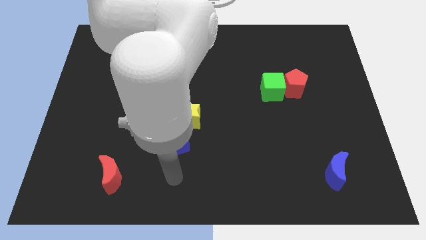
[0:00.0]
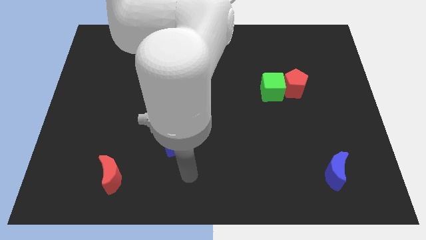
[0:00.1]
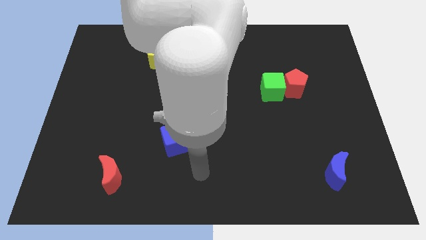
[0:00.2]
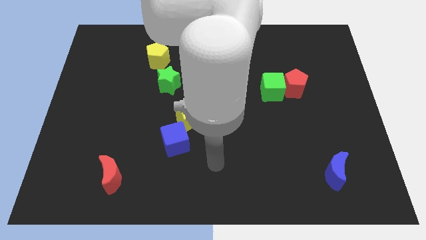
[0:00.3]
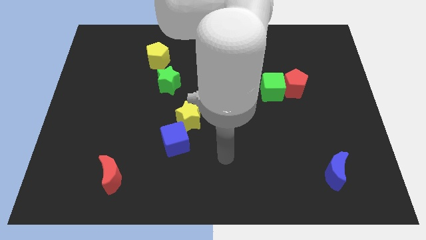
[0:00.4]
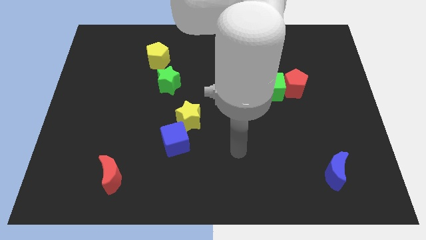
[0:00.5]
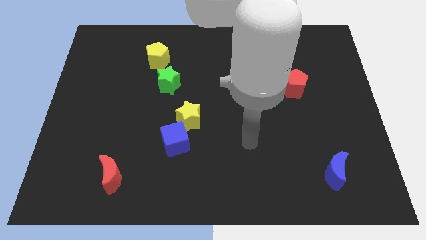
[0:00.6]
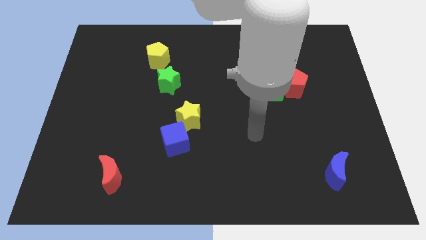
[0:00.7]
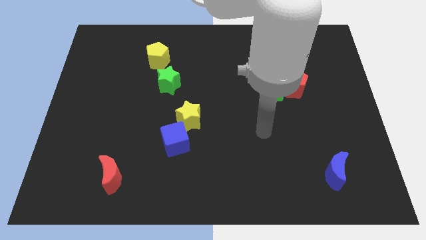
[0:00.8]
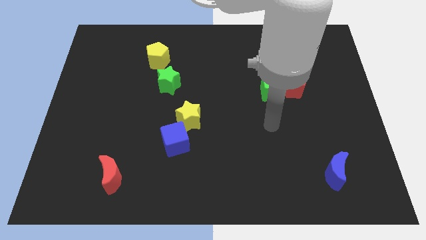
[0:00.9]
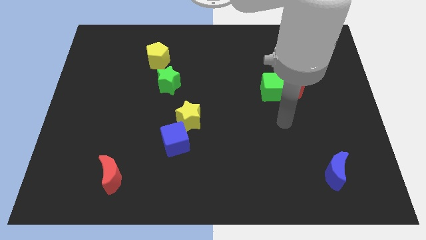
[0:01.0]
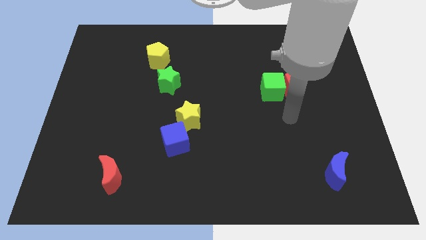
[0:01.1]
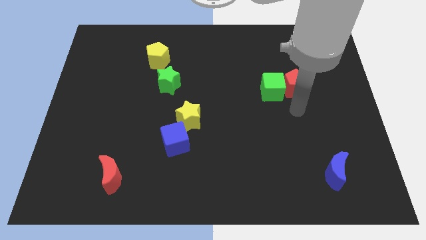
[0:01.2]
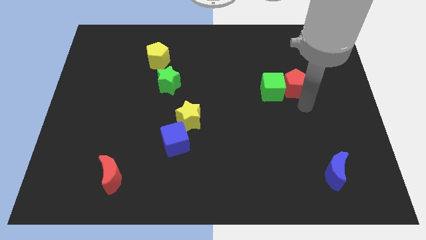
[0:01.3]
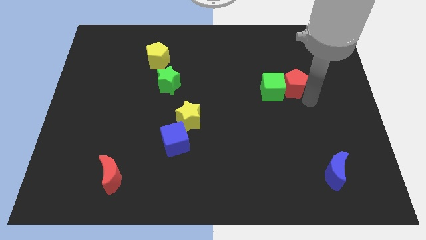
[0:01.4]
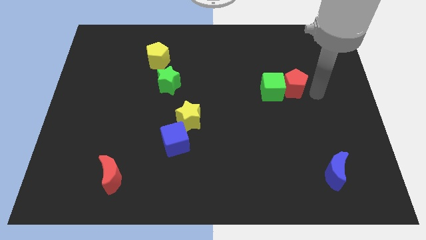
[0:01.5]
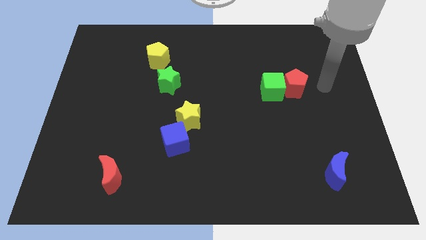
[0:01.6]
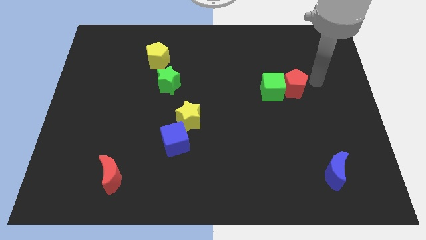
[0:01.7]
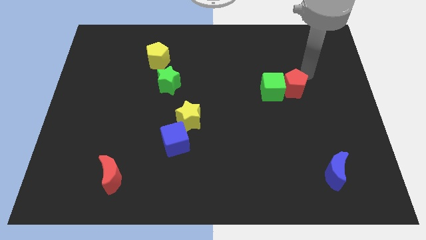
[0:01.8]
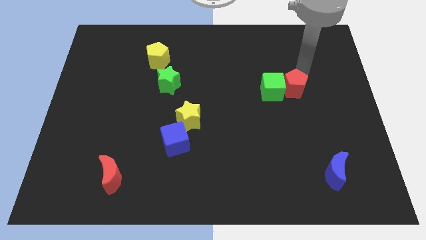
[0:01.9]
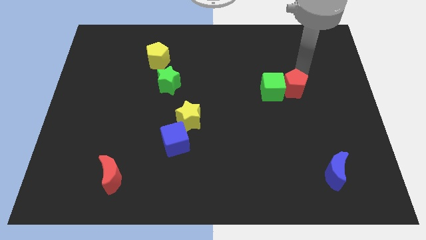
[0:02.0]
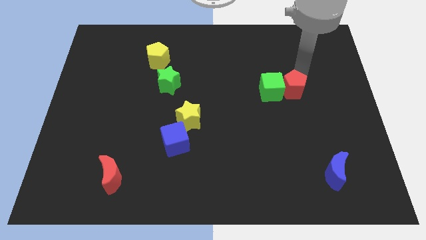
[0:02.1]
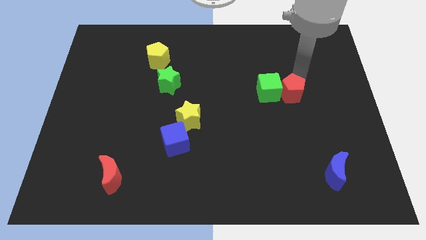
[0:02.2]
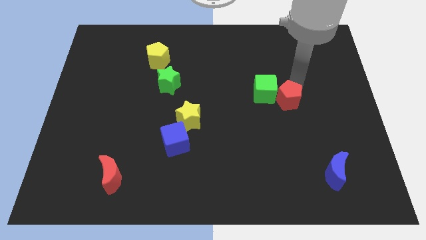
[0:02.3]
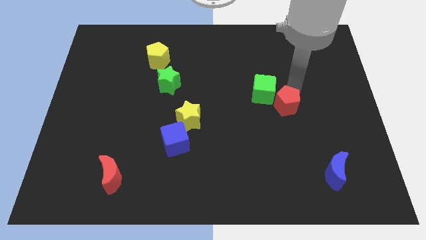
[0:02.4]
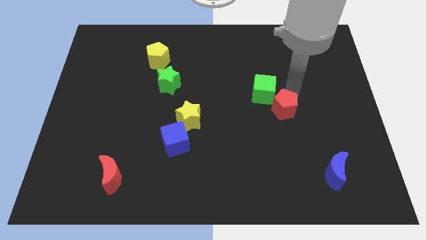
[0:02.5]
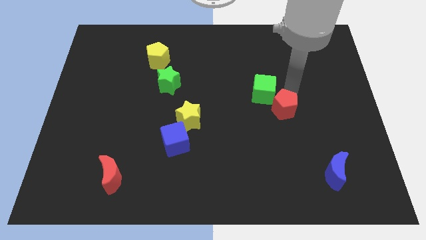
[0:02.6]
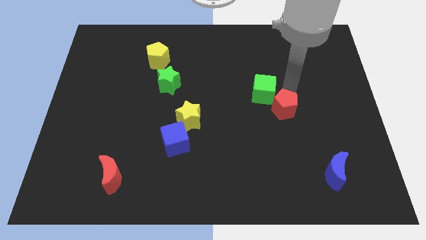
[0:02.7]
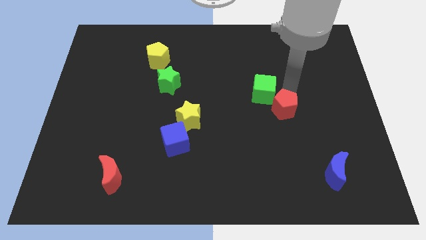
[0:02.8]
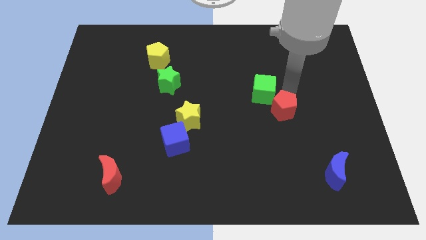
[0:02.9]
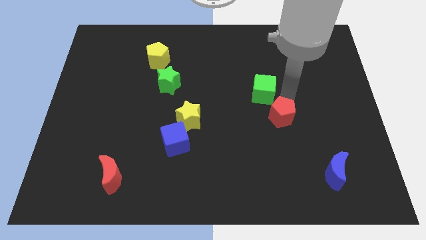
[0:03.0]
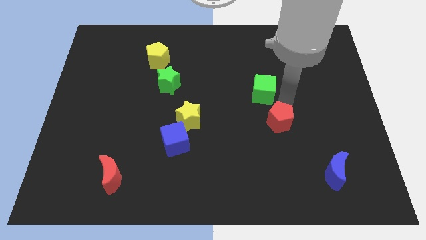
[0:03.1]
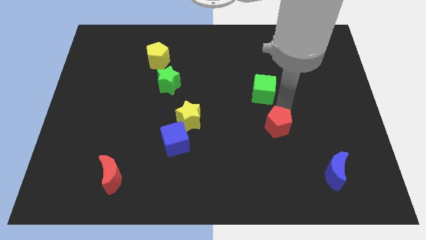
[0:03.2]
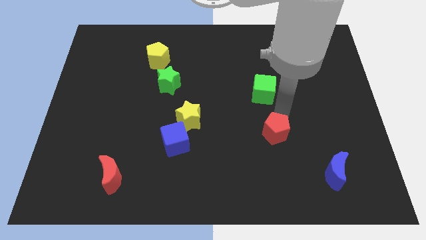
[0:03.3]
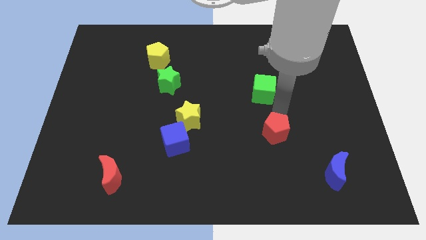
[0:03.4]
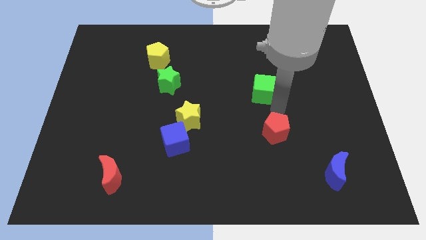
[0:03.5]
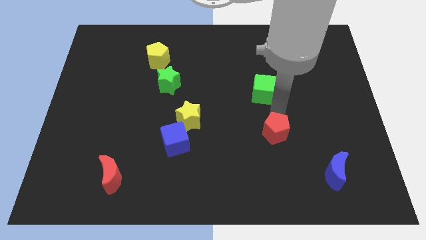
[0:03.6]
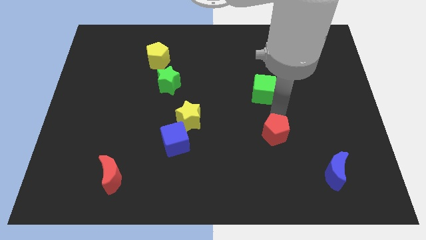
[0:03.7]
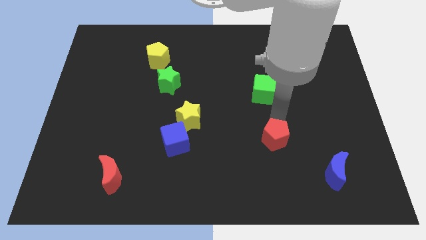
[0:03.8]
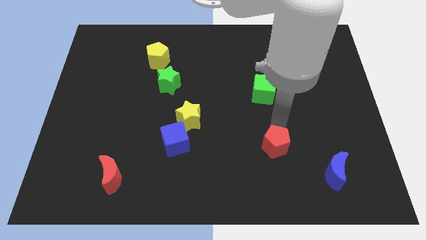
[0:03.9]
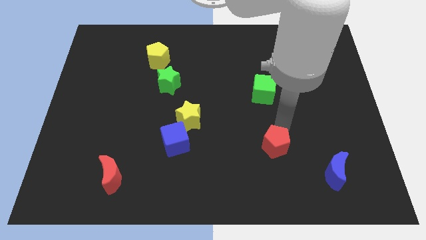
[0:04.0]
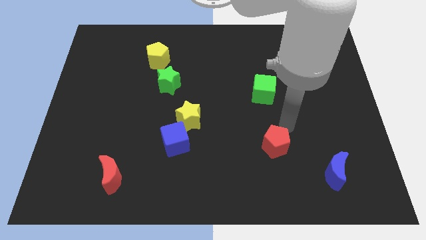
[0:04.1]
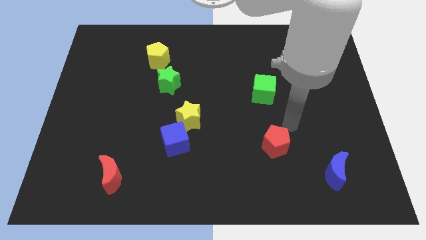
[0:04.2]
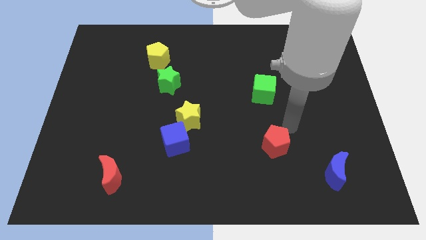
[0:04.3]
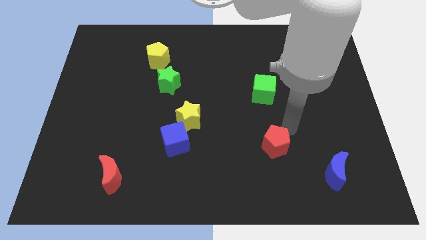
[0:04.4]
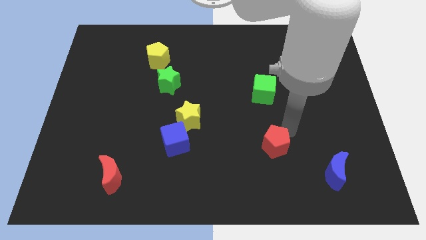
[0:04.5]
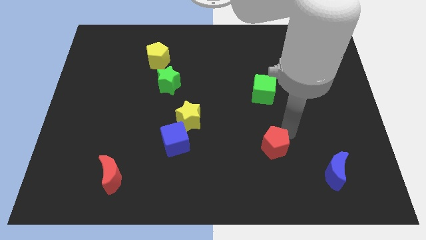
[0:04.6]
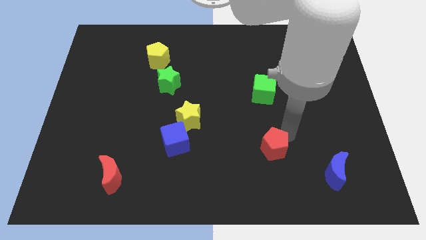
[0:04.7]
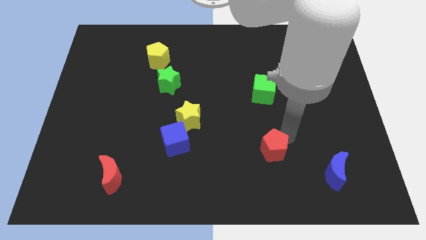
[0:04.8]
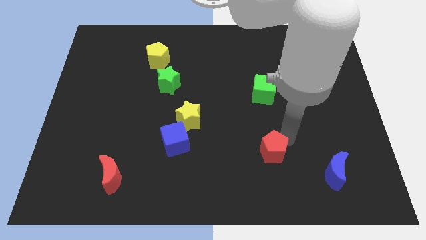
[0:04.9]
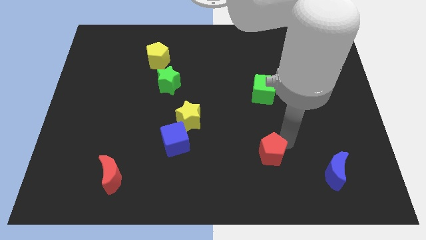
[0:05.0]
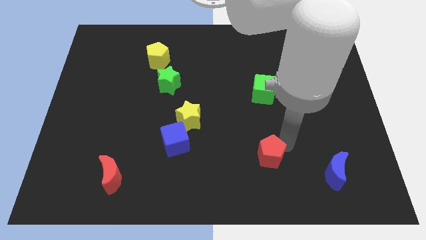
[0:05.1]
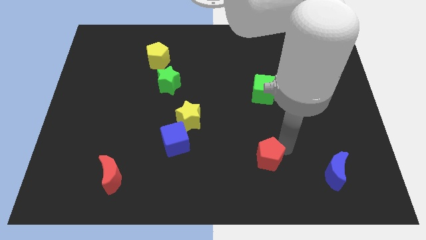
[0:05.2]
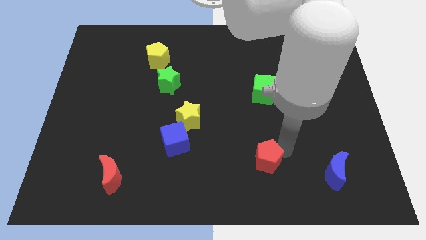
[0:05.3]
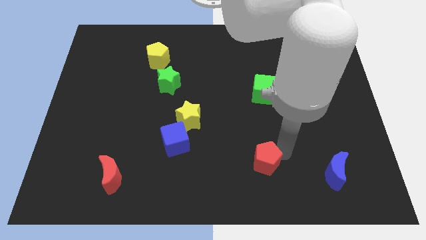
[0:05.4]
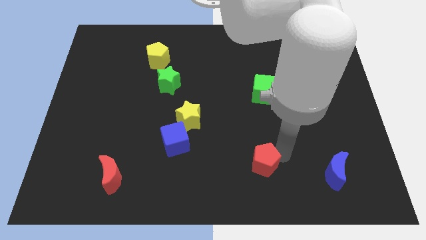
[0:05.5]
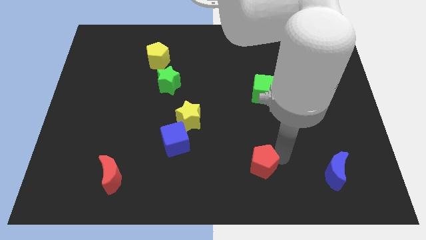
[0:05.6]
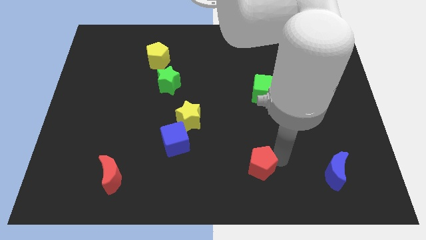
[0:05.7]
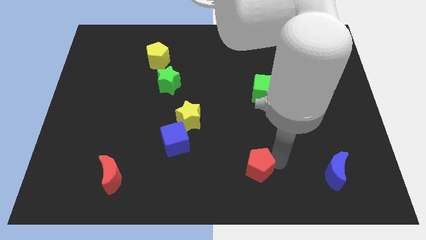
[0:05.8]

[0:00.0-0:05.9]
push the red pentagon to the bottom side

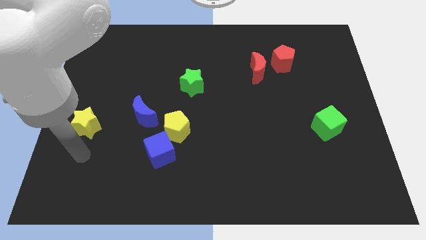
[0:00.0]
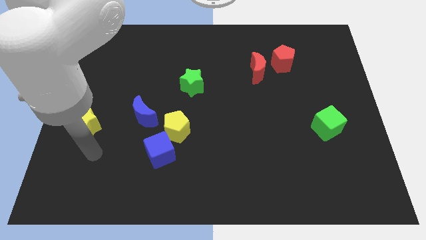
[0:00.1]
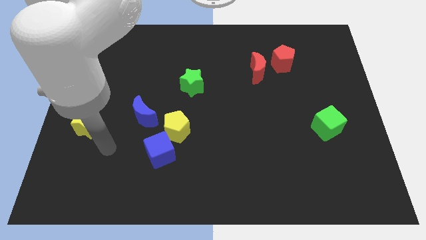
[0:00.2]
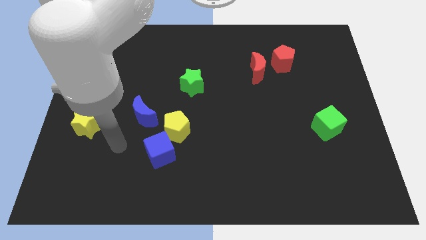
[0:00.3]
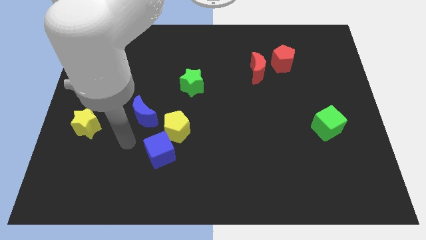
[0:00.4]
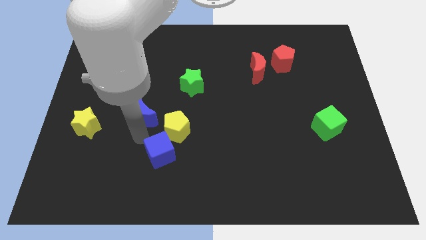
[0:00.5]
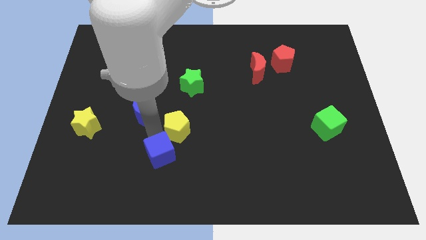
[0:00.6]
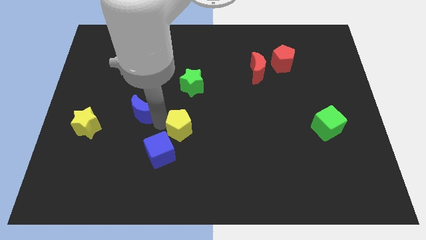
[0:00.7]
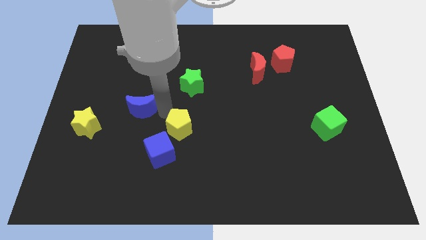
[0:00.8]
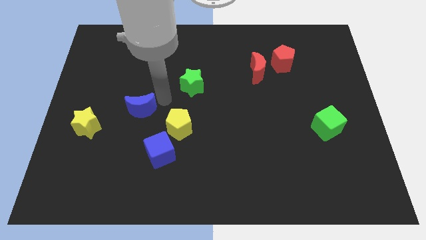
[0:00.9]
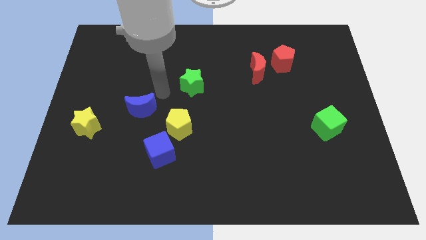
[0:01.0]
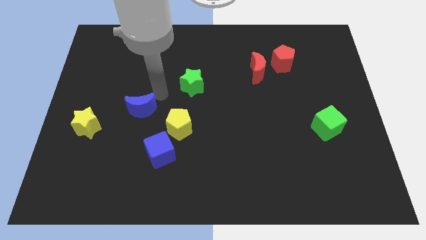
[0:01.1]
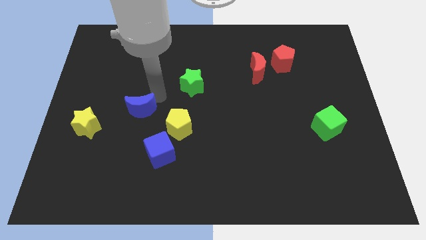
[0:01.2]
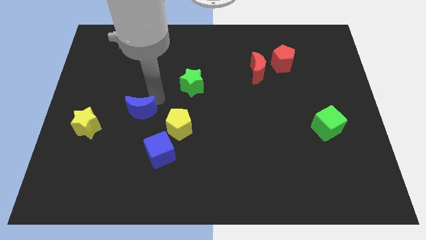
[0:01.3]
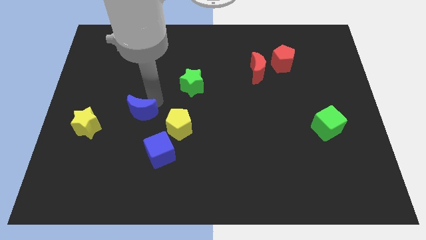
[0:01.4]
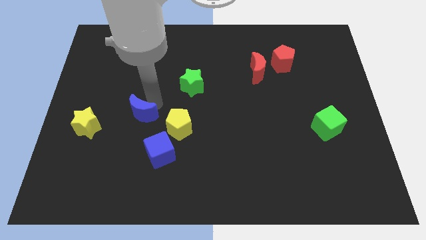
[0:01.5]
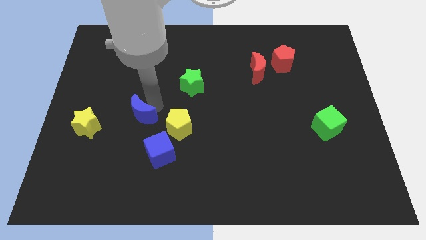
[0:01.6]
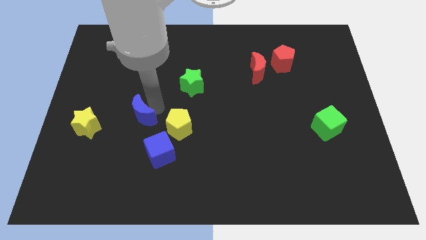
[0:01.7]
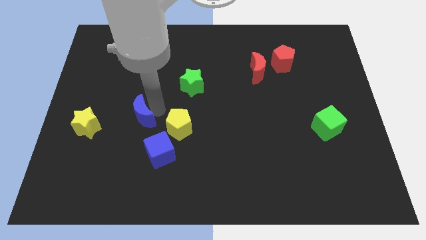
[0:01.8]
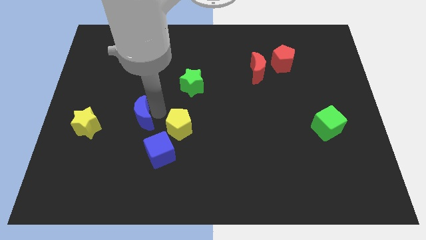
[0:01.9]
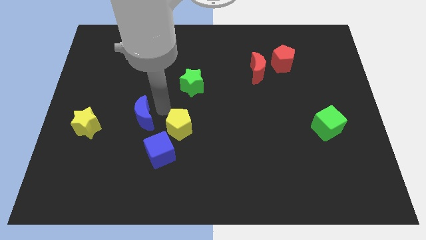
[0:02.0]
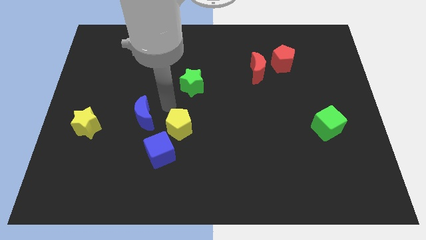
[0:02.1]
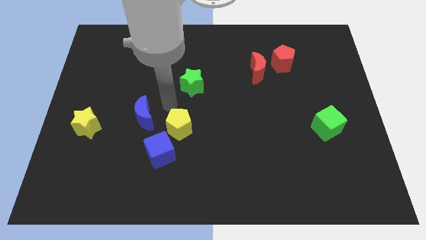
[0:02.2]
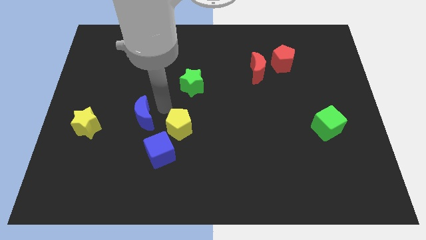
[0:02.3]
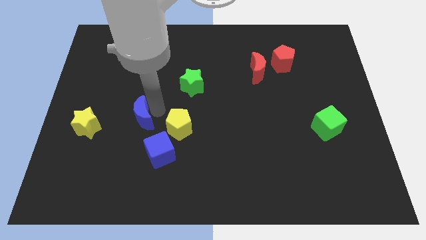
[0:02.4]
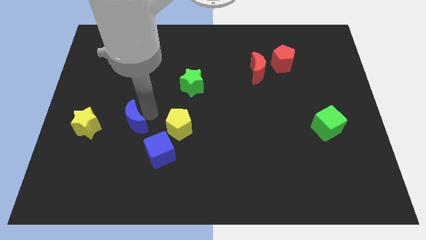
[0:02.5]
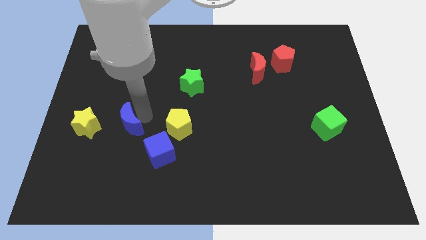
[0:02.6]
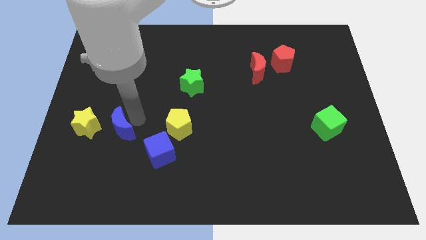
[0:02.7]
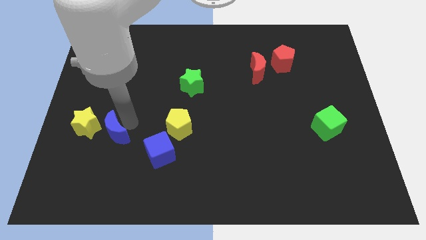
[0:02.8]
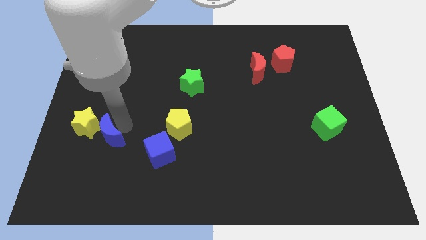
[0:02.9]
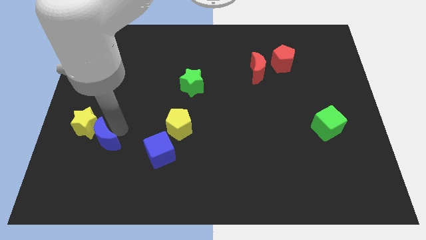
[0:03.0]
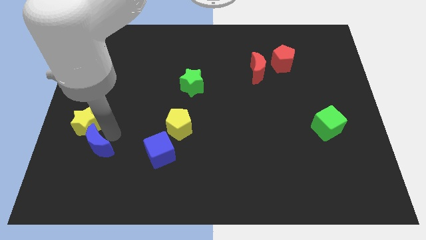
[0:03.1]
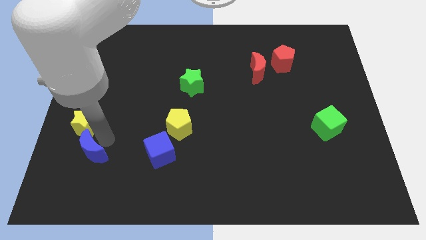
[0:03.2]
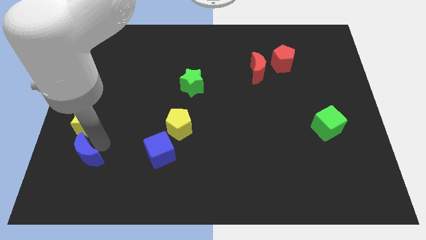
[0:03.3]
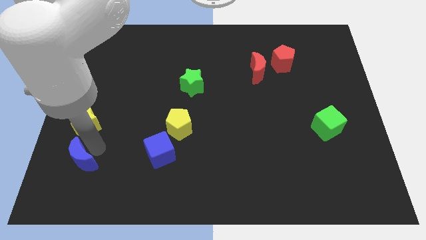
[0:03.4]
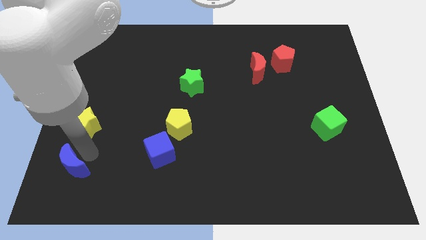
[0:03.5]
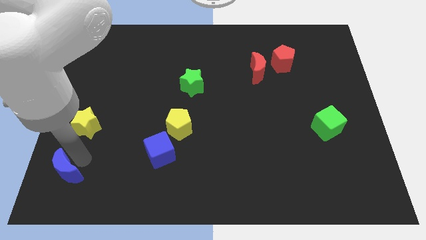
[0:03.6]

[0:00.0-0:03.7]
move the blue moon to the bottom left corner
